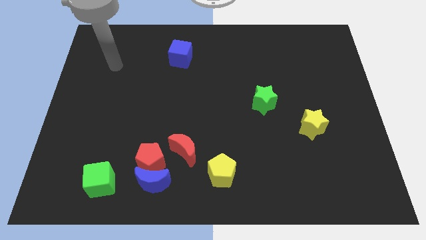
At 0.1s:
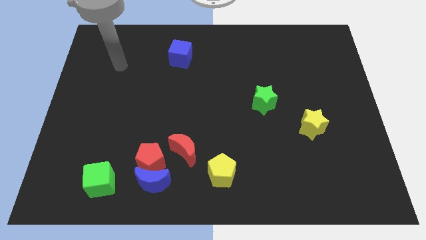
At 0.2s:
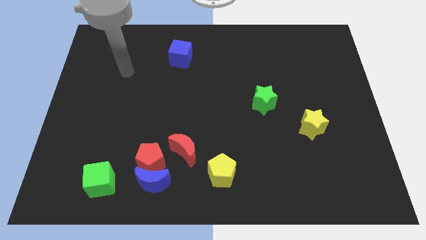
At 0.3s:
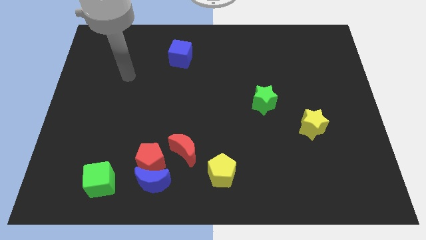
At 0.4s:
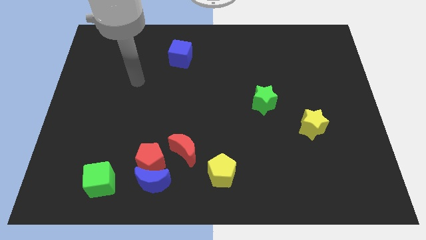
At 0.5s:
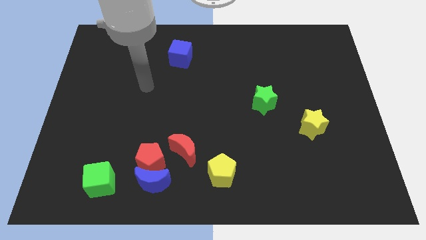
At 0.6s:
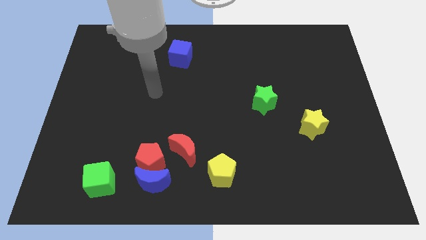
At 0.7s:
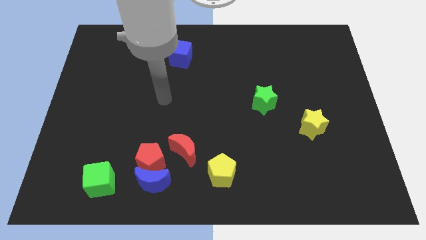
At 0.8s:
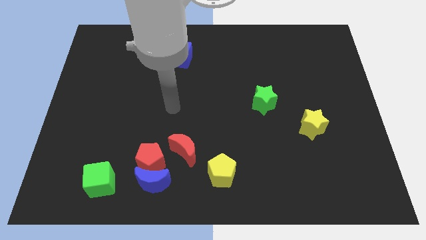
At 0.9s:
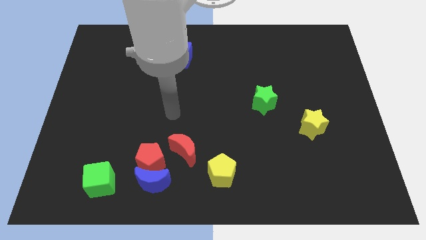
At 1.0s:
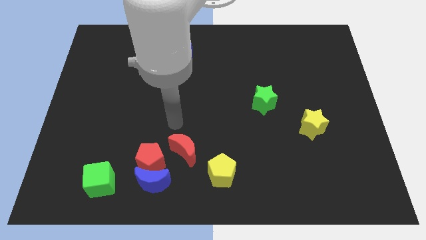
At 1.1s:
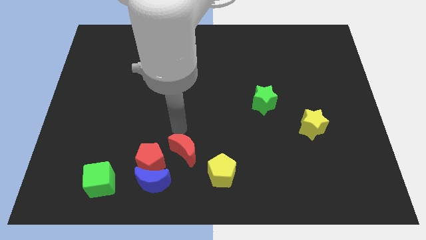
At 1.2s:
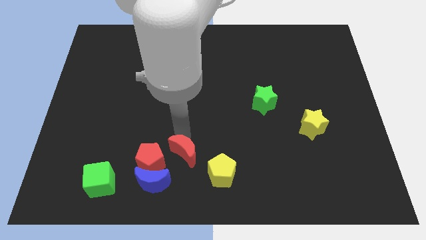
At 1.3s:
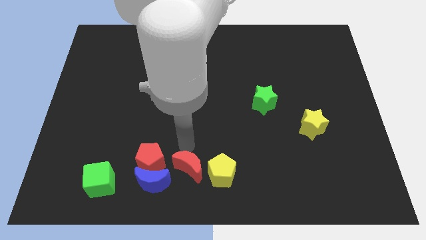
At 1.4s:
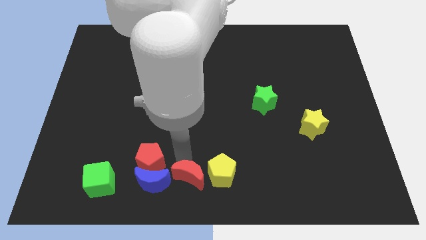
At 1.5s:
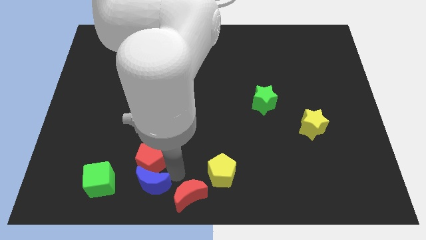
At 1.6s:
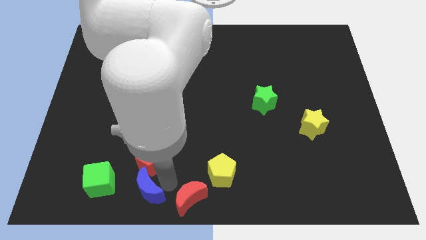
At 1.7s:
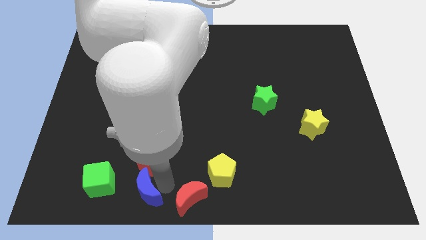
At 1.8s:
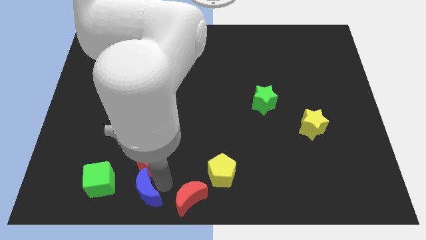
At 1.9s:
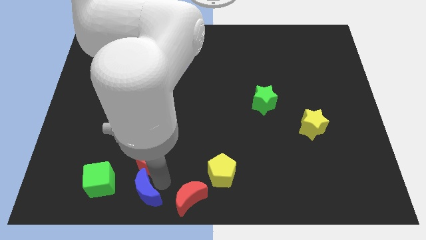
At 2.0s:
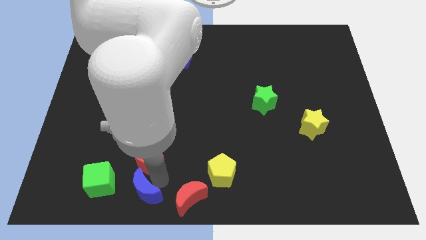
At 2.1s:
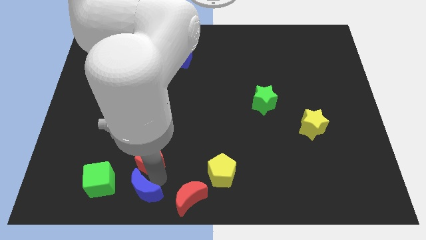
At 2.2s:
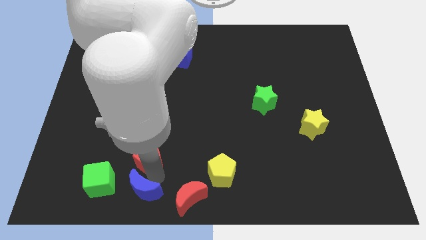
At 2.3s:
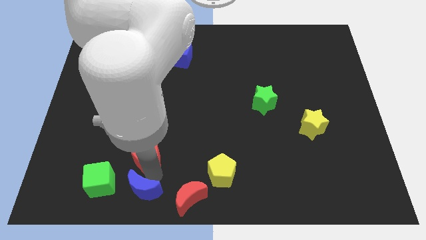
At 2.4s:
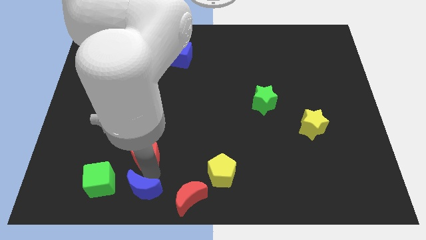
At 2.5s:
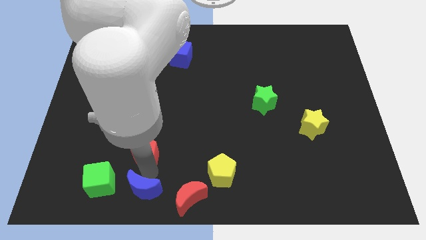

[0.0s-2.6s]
separate the red pentagon from the blue moon and red moon

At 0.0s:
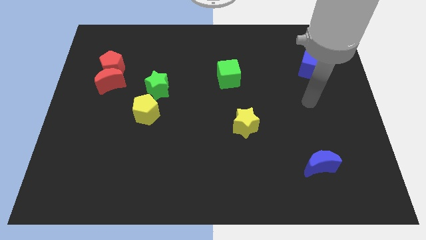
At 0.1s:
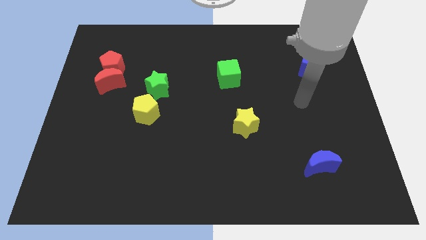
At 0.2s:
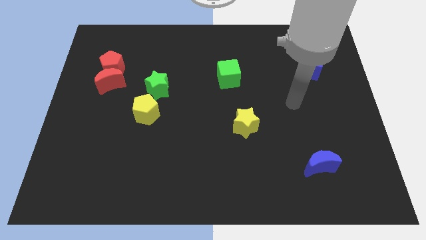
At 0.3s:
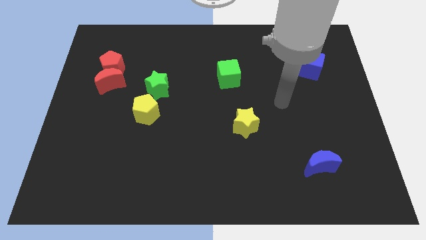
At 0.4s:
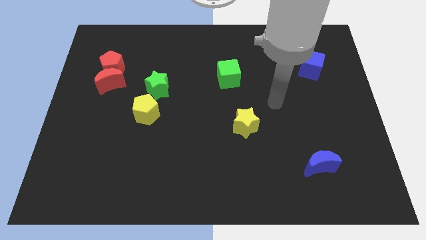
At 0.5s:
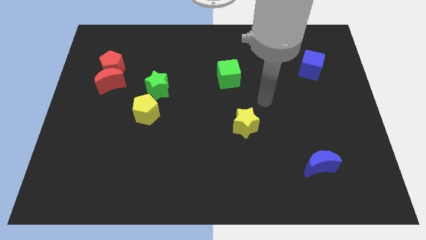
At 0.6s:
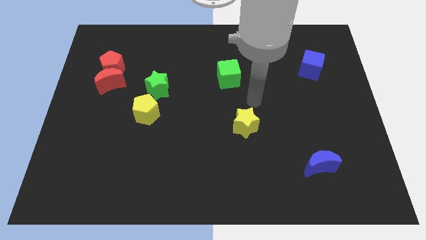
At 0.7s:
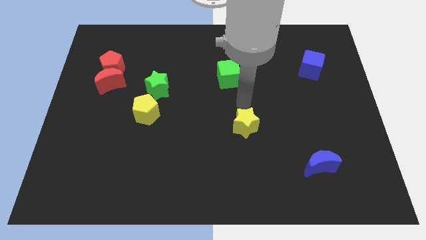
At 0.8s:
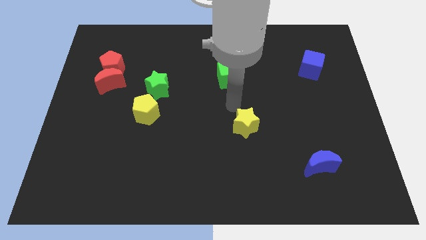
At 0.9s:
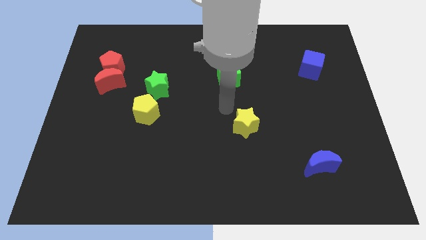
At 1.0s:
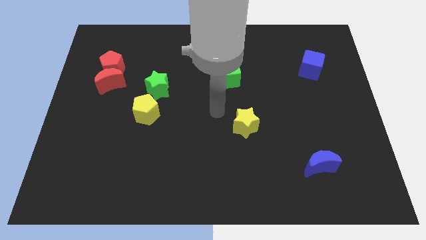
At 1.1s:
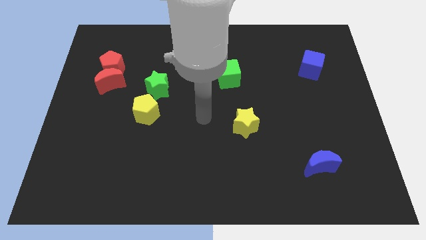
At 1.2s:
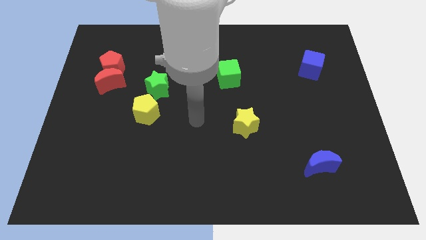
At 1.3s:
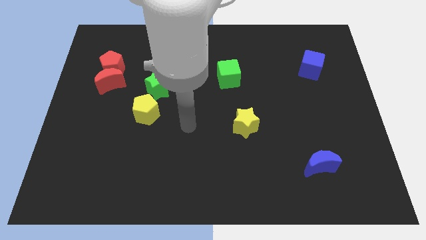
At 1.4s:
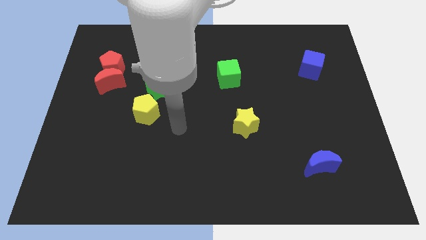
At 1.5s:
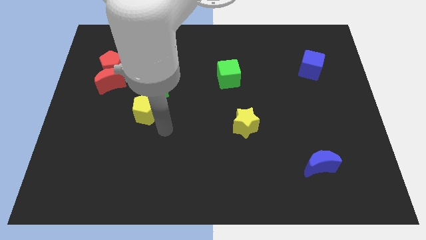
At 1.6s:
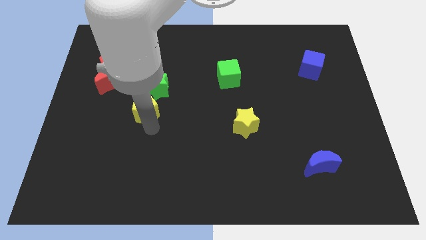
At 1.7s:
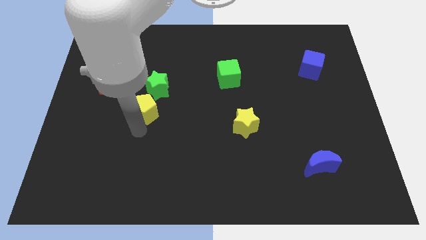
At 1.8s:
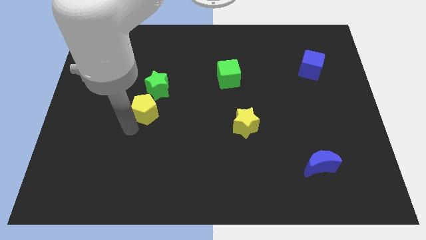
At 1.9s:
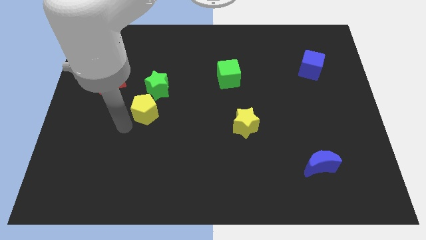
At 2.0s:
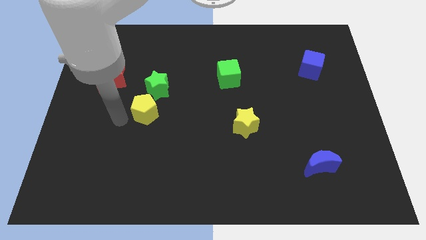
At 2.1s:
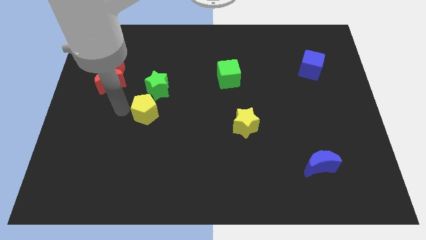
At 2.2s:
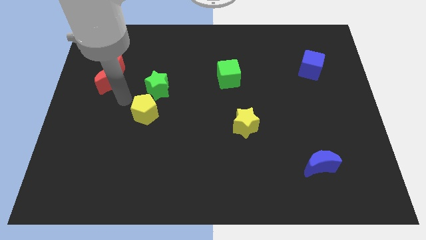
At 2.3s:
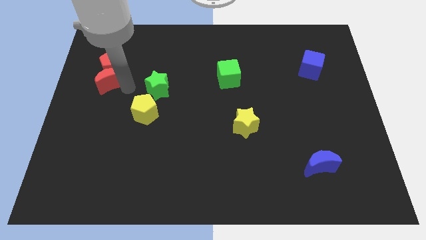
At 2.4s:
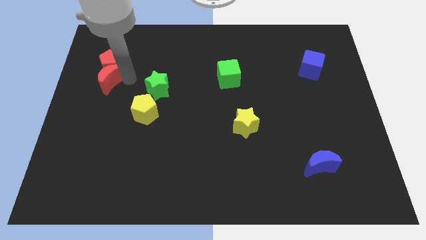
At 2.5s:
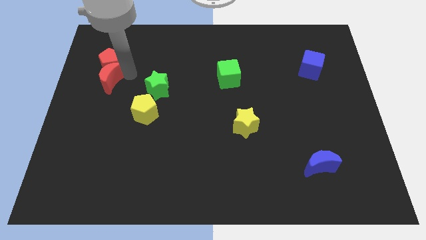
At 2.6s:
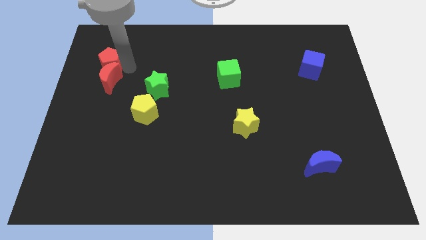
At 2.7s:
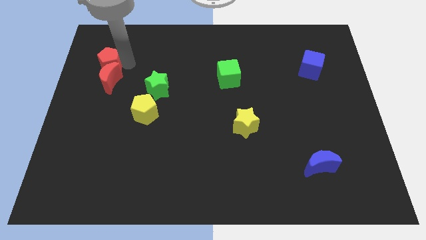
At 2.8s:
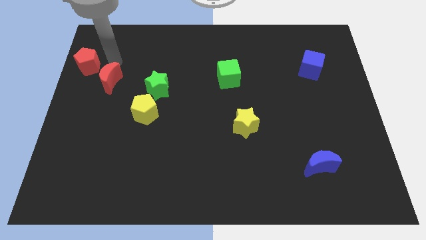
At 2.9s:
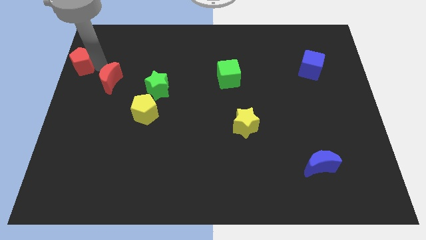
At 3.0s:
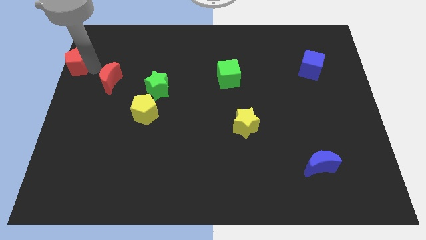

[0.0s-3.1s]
move the red moon away from the red pentagon

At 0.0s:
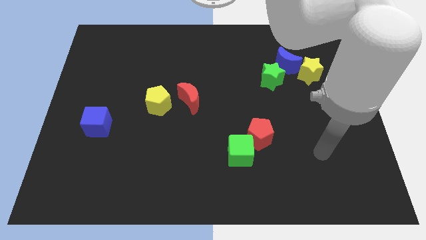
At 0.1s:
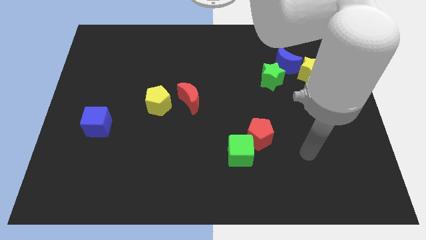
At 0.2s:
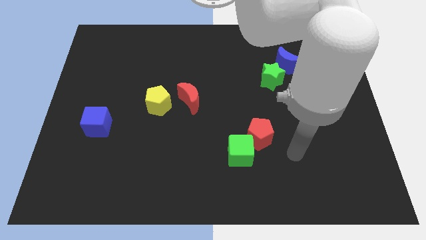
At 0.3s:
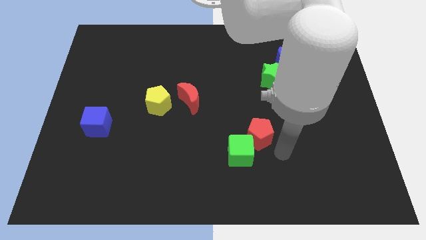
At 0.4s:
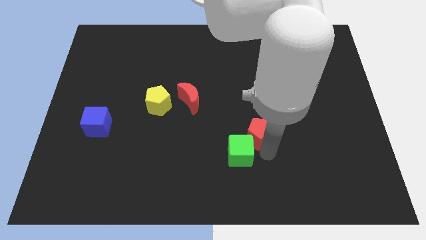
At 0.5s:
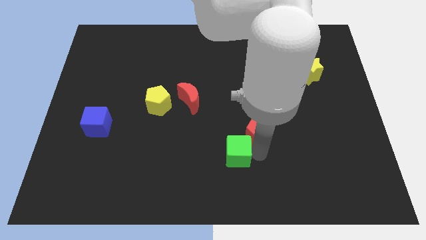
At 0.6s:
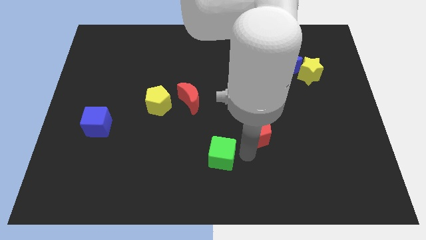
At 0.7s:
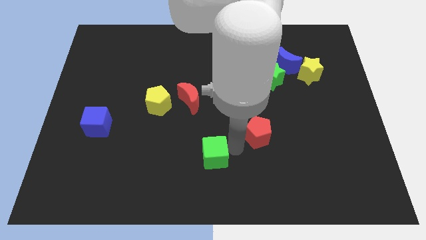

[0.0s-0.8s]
pull the red pentagon apart from the green cube

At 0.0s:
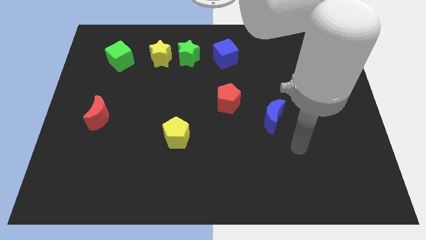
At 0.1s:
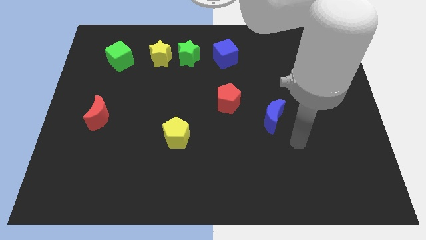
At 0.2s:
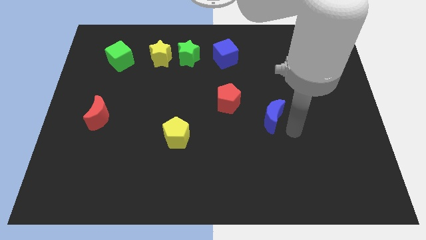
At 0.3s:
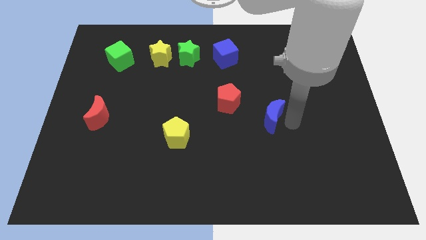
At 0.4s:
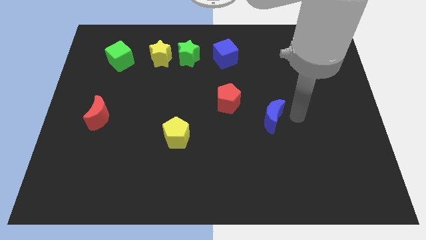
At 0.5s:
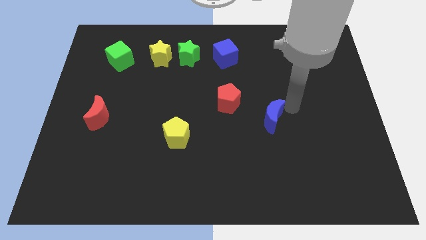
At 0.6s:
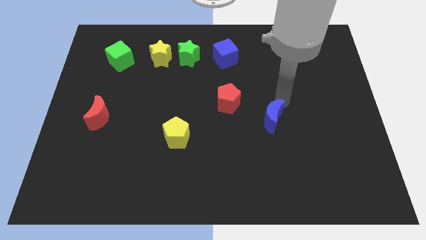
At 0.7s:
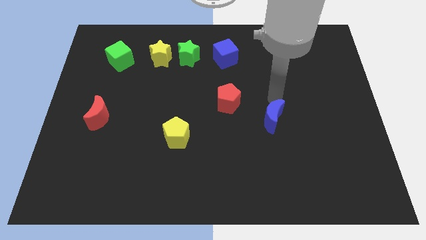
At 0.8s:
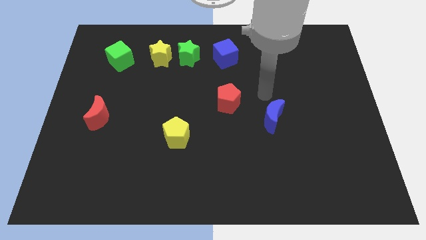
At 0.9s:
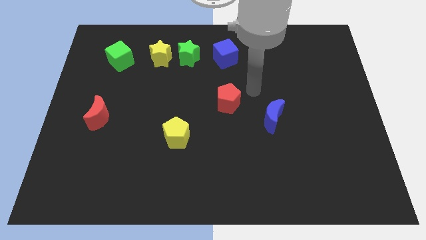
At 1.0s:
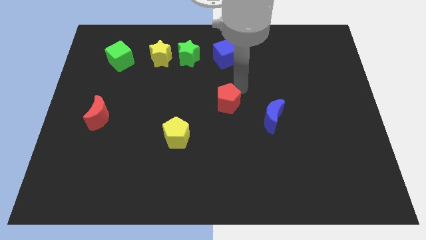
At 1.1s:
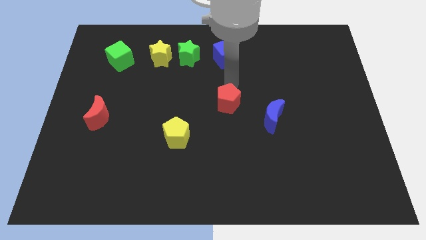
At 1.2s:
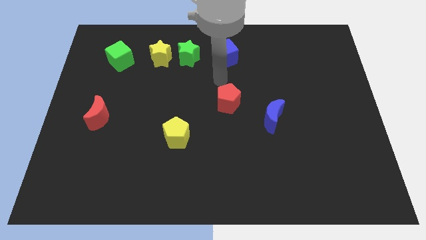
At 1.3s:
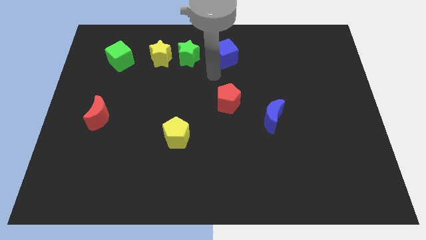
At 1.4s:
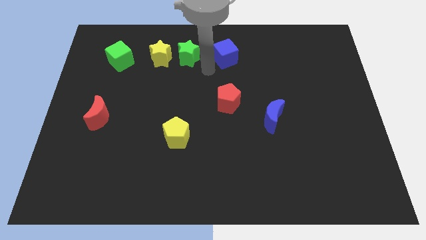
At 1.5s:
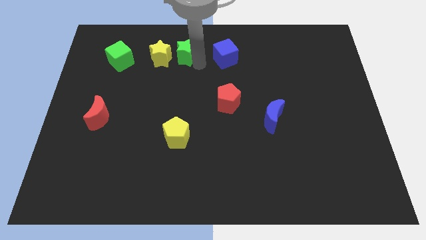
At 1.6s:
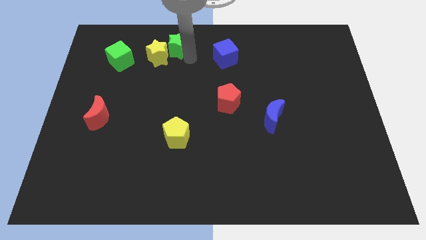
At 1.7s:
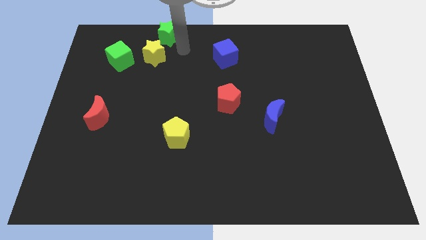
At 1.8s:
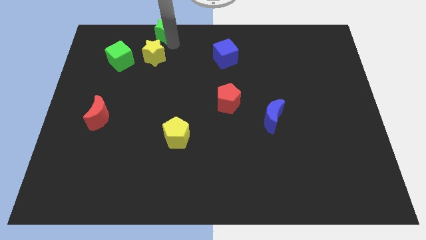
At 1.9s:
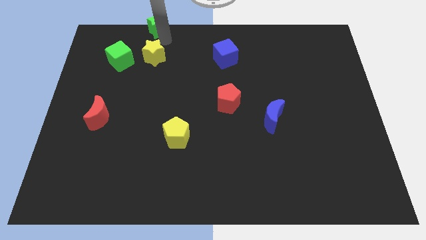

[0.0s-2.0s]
pull the yellow star apart from the green star

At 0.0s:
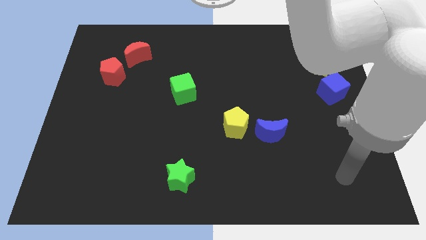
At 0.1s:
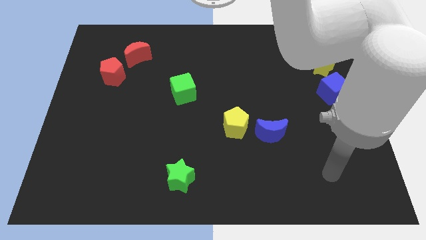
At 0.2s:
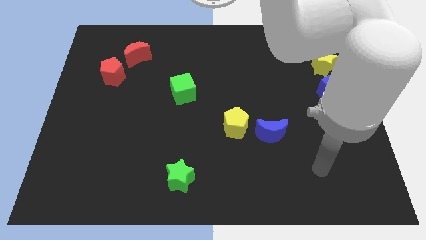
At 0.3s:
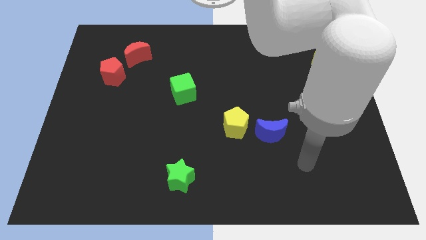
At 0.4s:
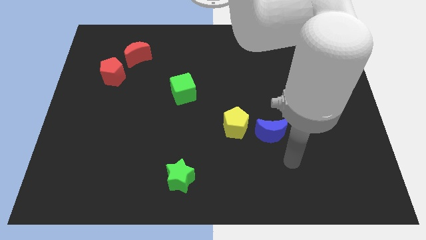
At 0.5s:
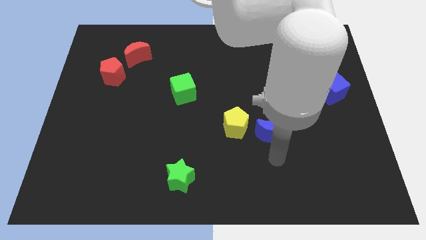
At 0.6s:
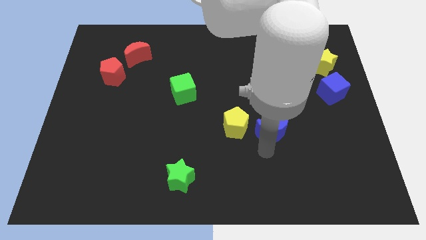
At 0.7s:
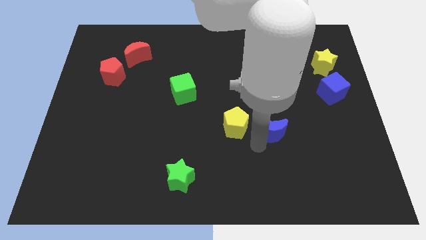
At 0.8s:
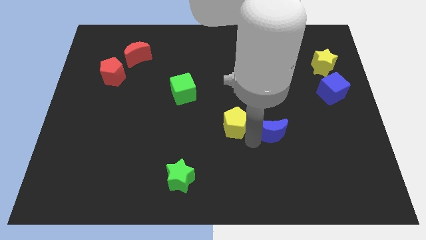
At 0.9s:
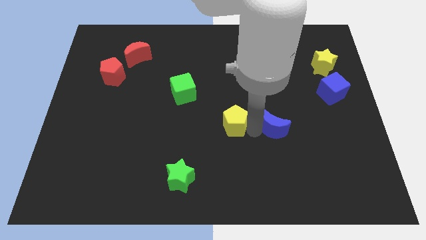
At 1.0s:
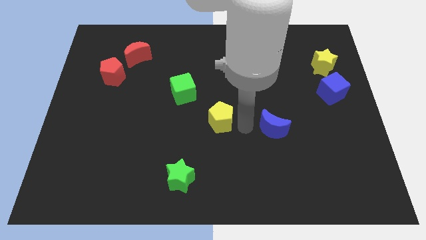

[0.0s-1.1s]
separate the blue moon from the yellow pentagon
